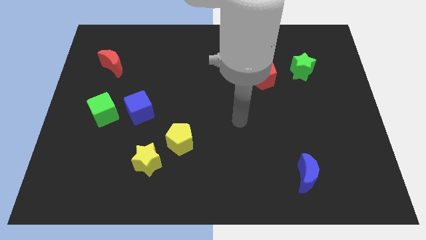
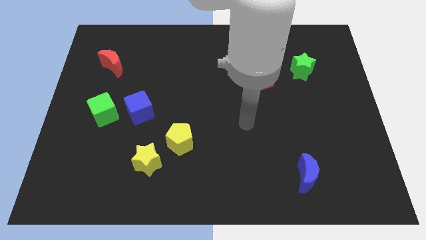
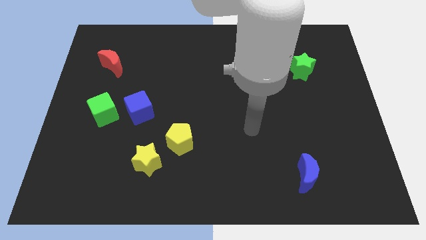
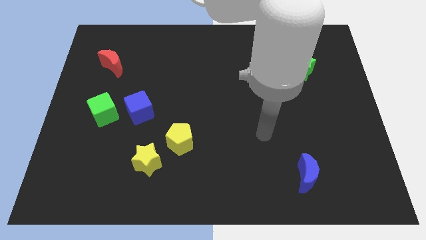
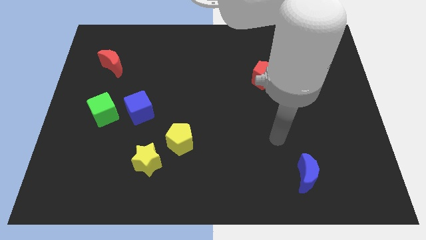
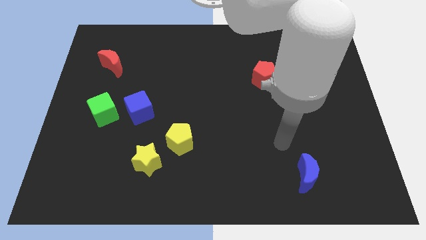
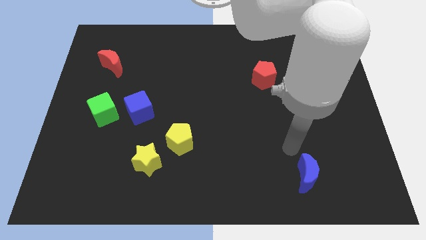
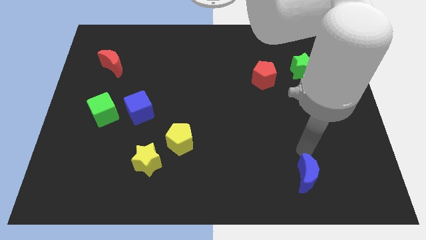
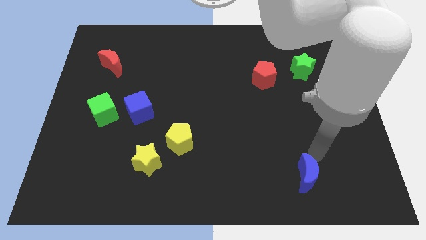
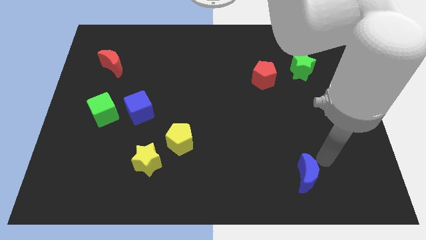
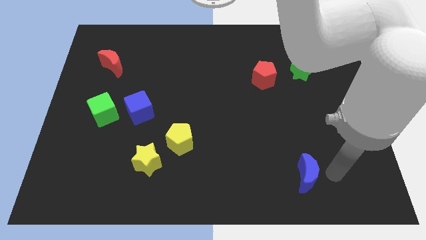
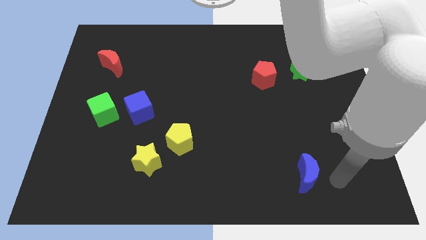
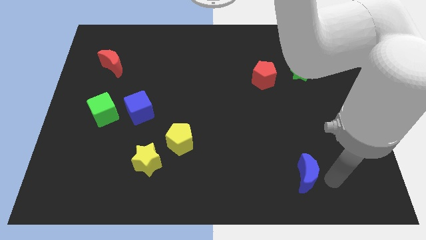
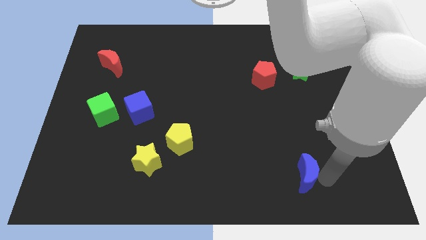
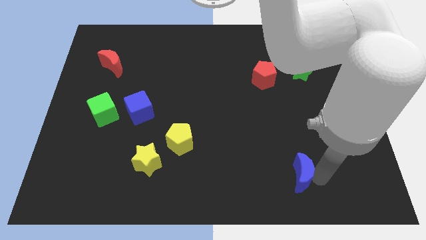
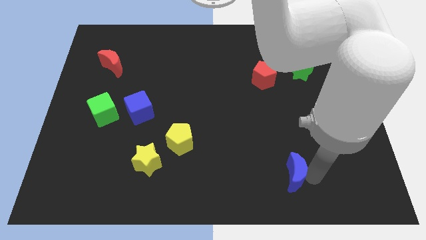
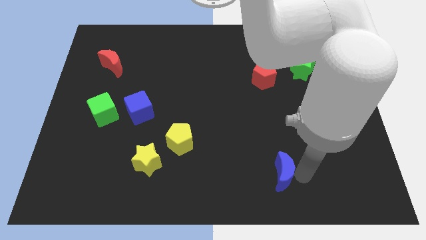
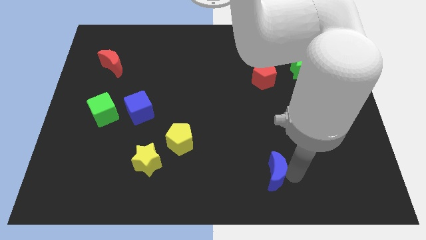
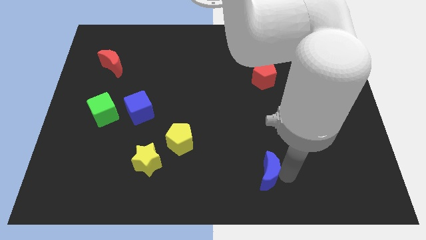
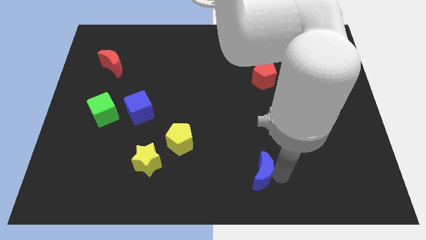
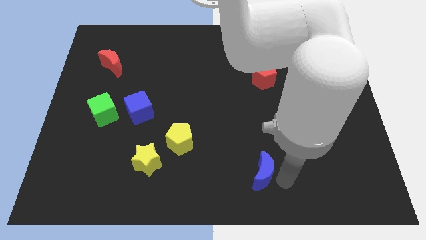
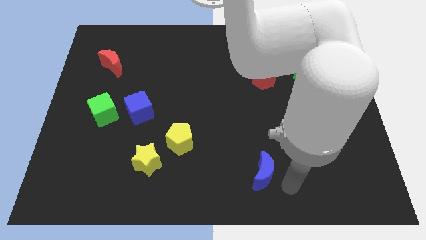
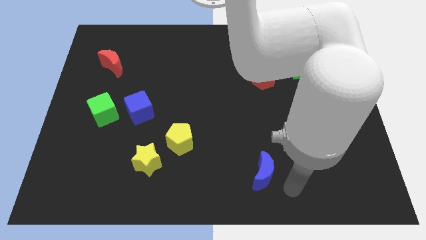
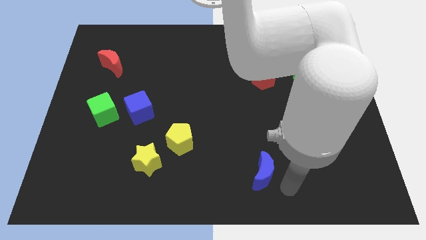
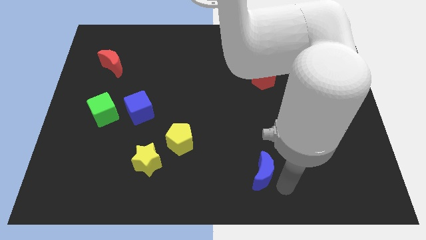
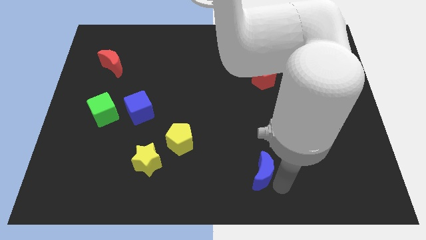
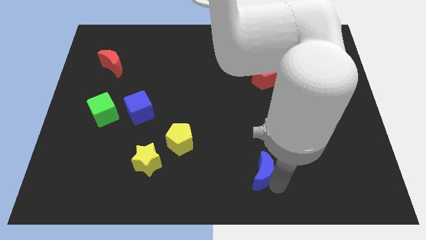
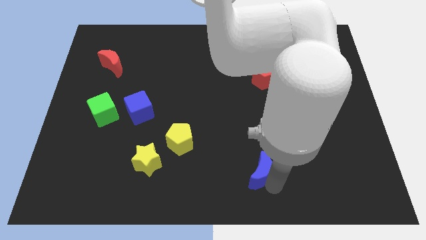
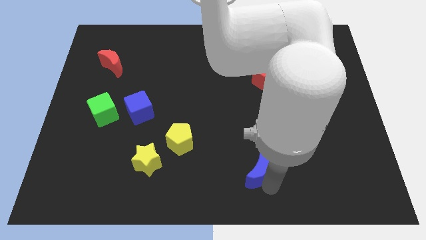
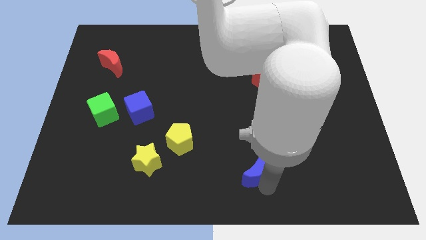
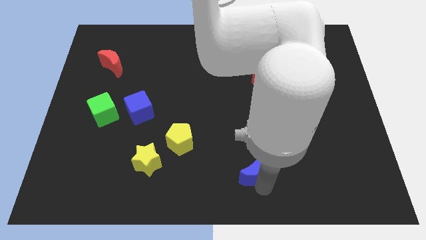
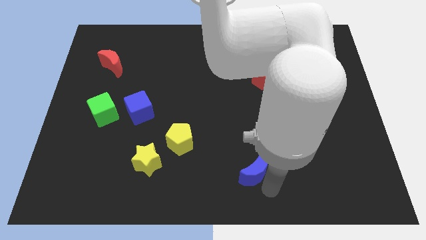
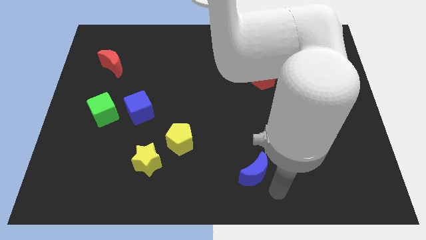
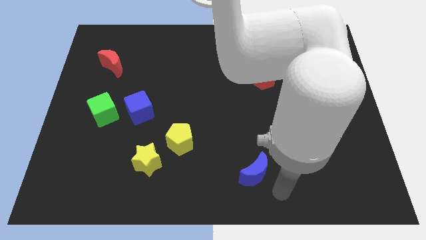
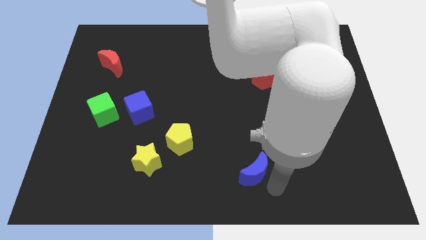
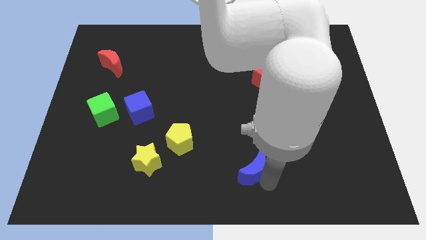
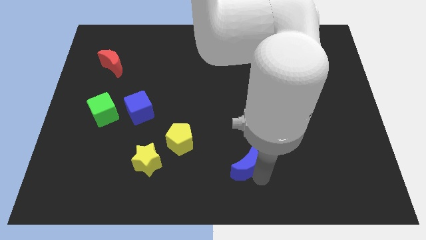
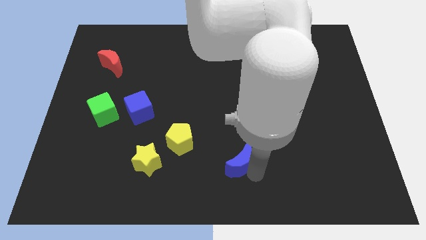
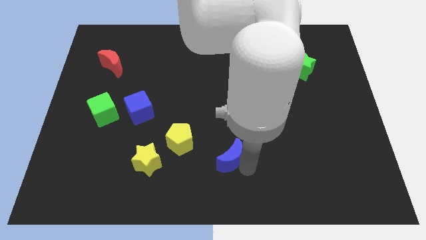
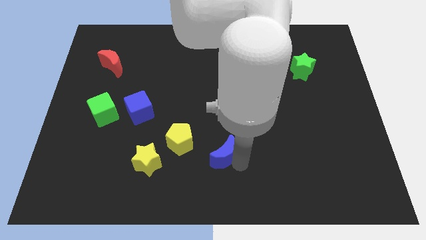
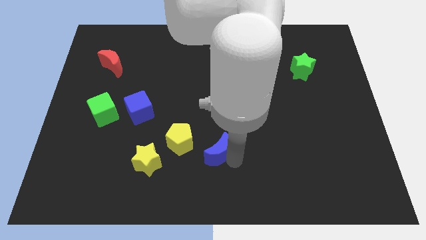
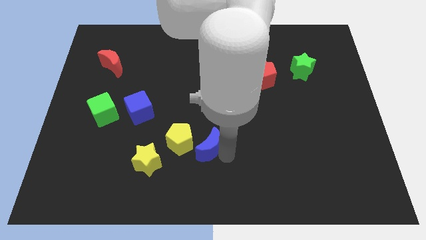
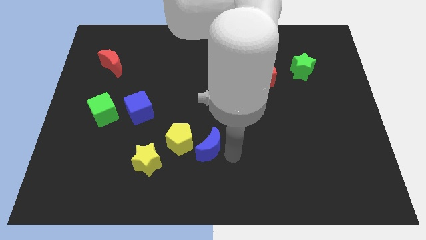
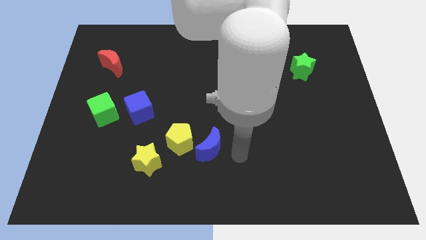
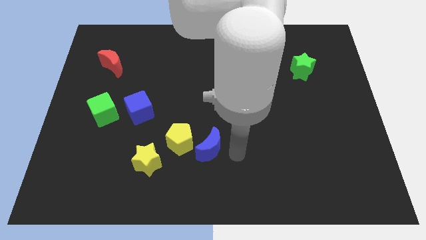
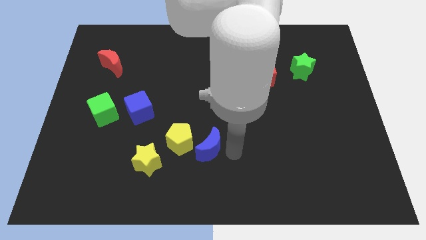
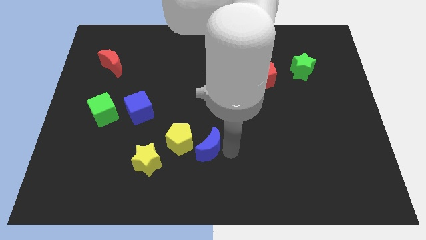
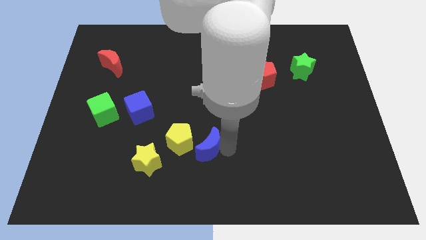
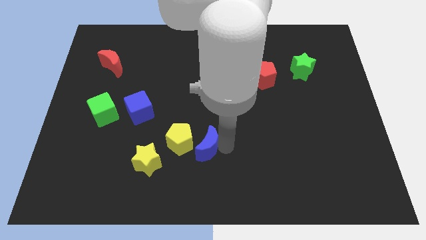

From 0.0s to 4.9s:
move the blue moon next to the yellow pentagon

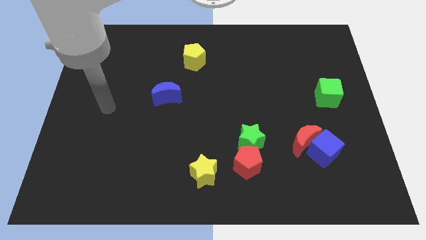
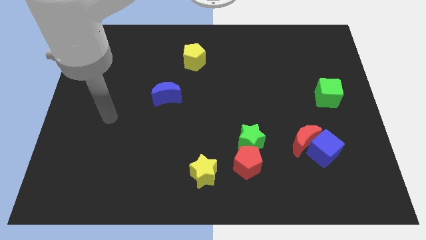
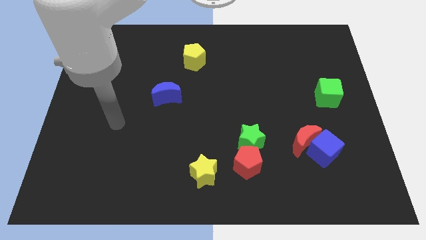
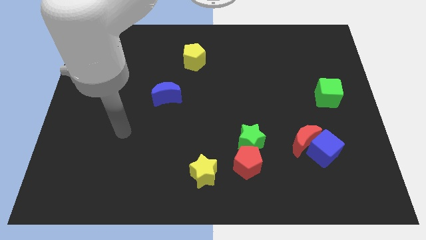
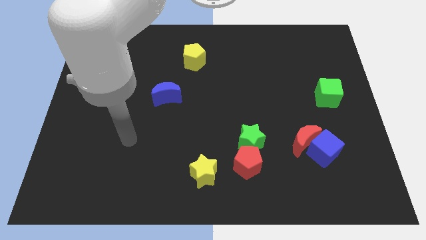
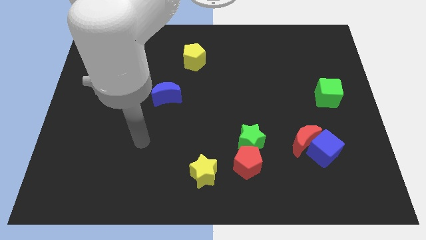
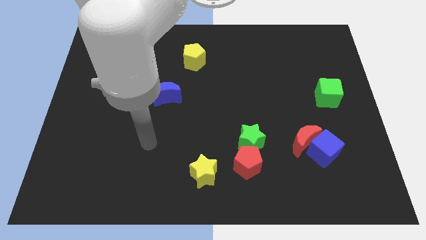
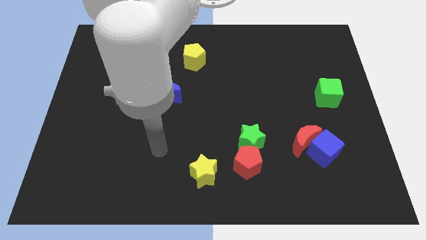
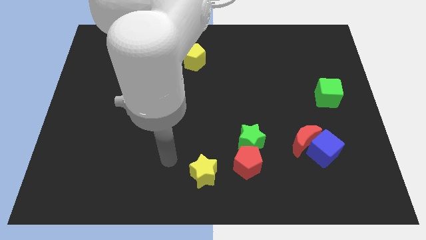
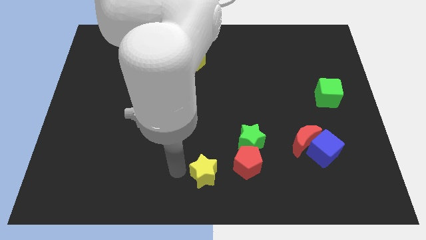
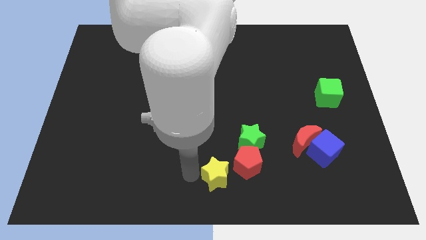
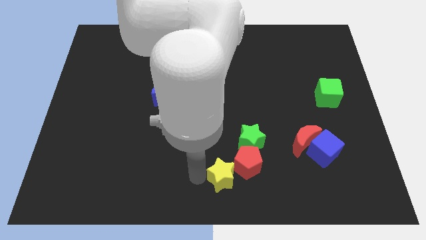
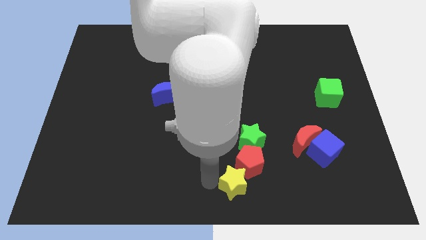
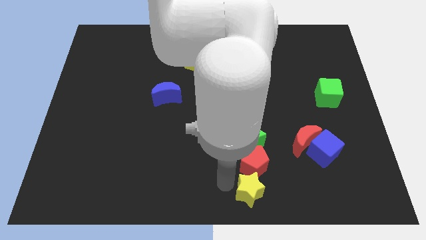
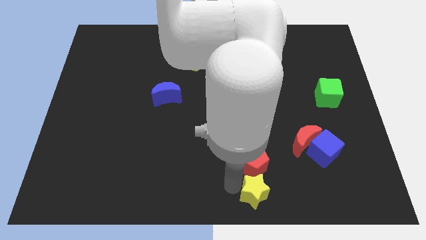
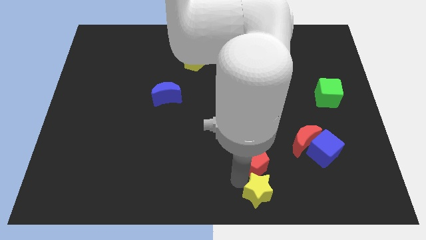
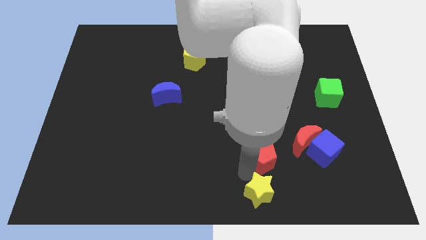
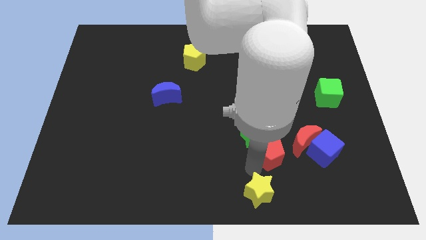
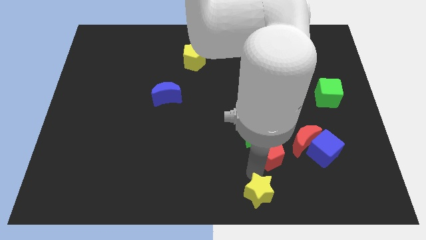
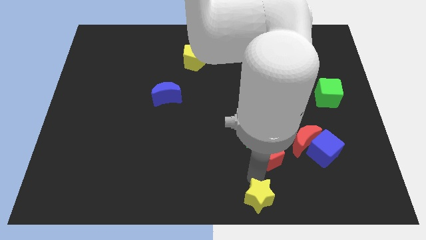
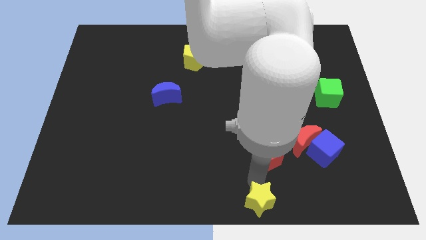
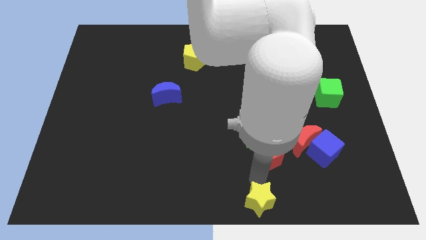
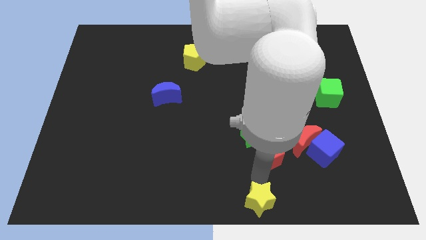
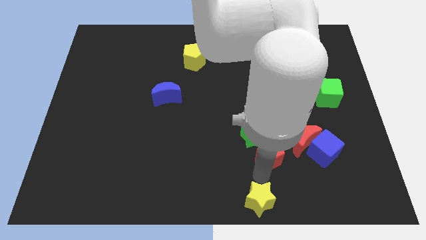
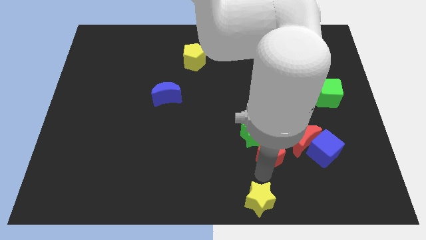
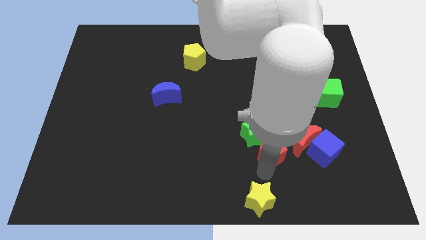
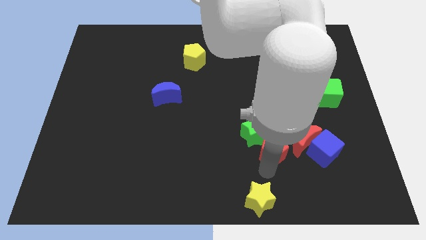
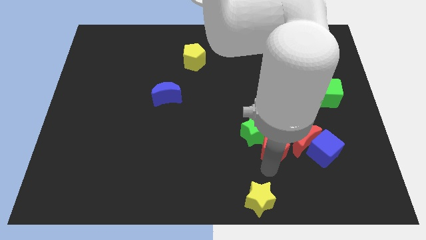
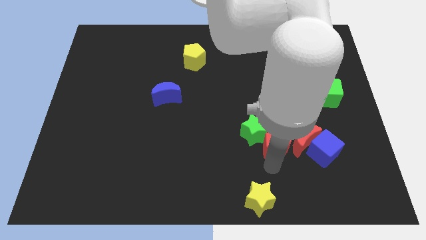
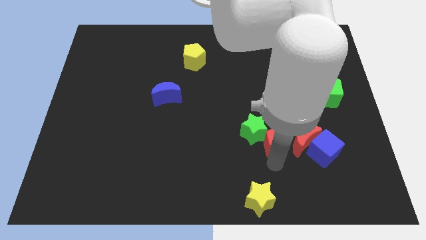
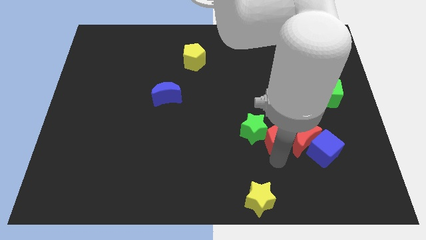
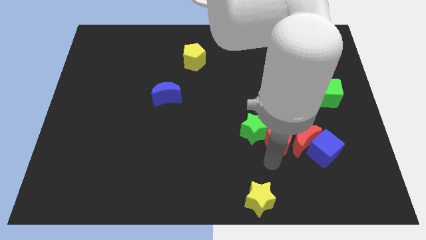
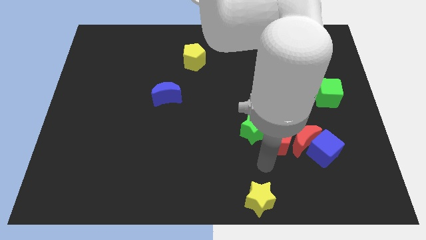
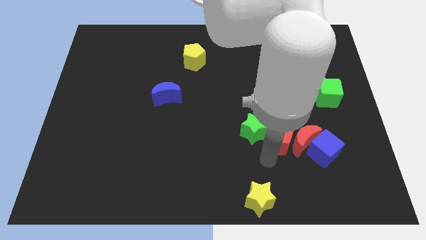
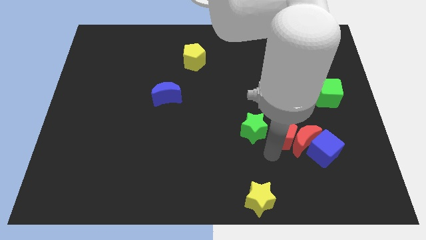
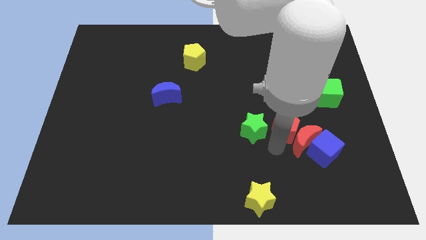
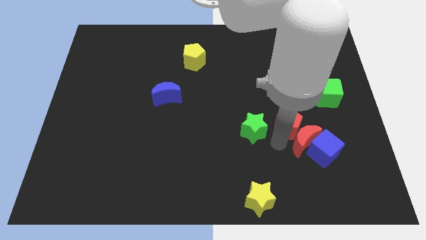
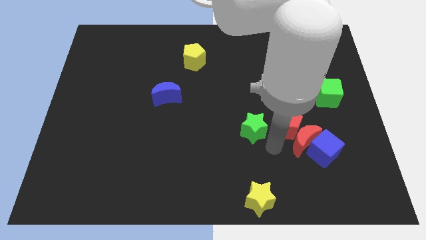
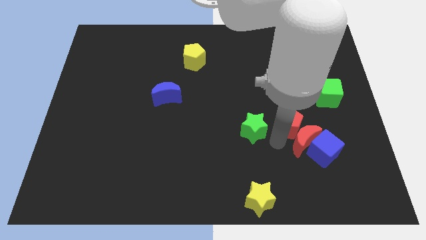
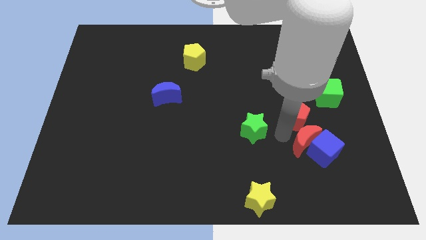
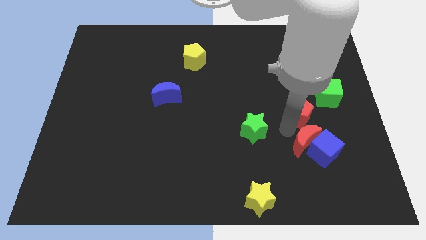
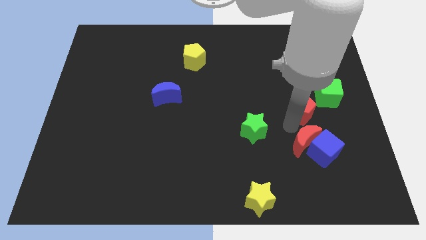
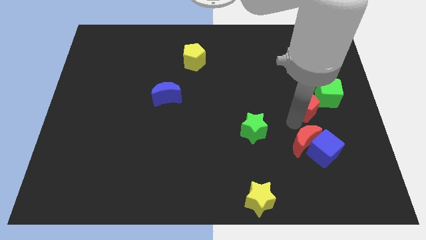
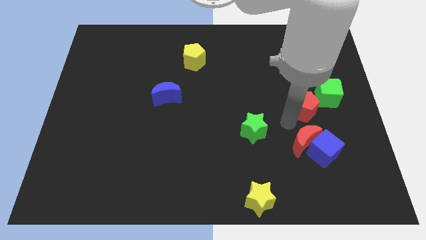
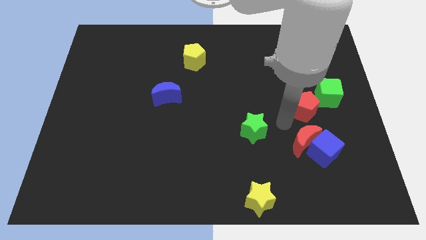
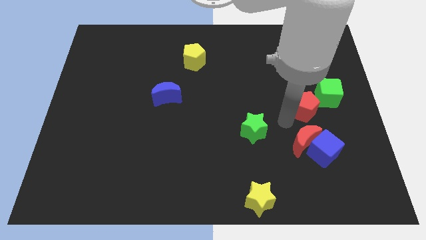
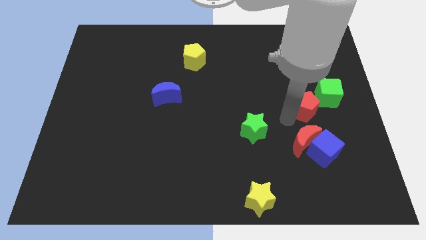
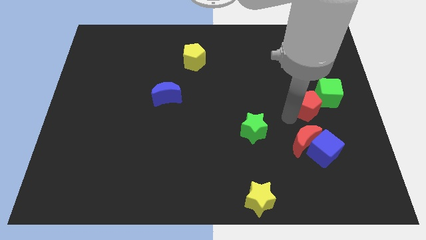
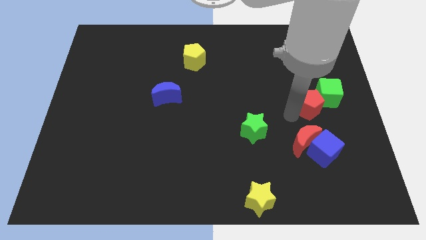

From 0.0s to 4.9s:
push the red pentagon towards the green cube
